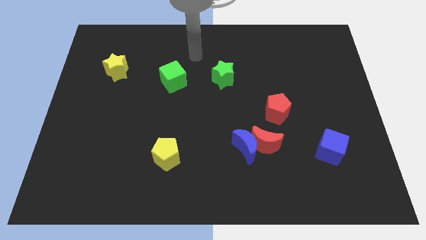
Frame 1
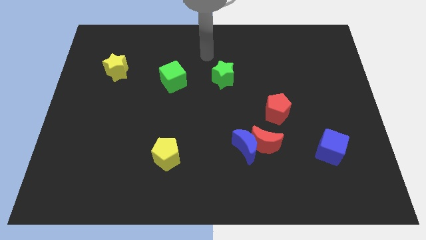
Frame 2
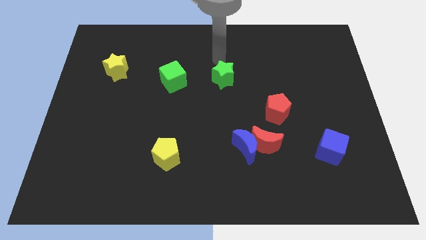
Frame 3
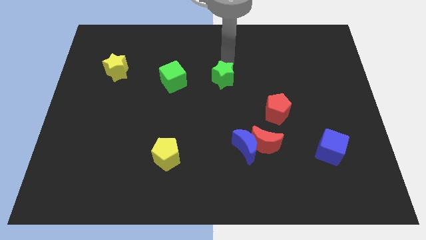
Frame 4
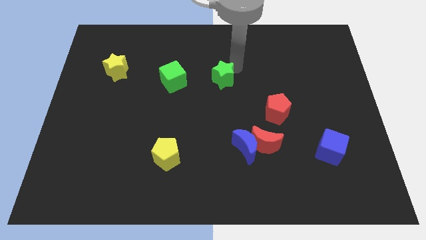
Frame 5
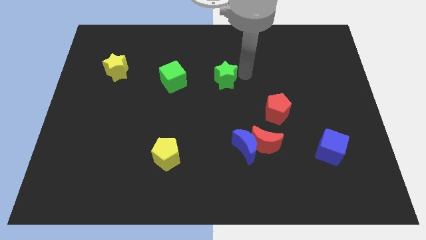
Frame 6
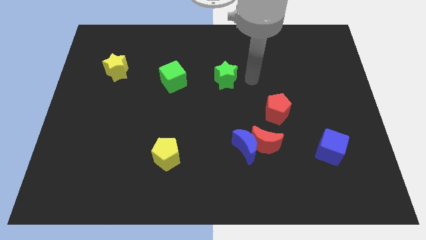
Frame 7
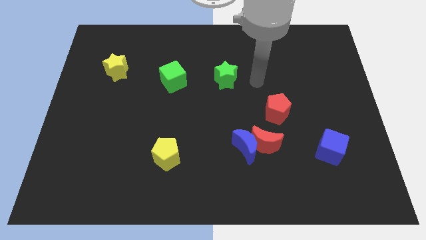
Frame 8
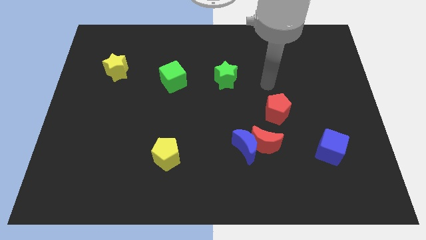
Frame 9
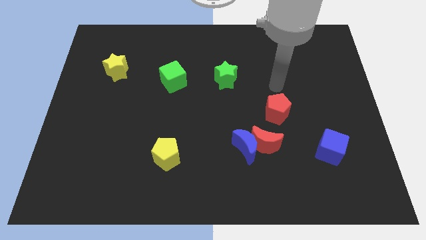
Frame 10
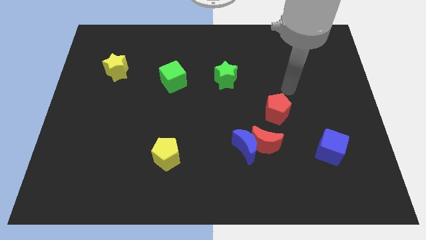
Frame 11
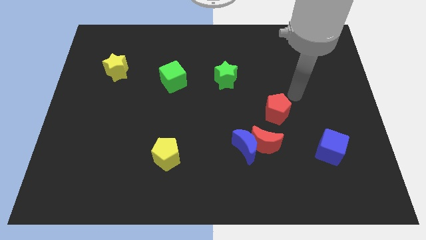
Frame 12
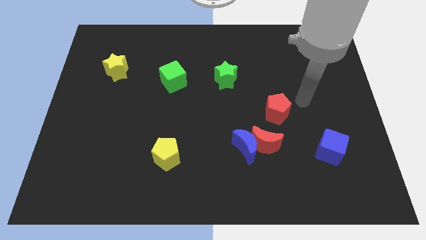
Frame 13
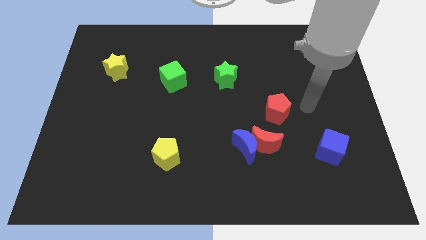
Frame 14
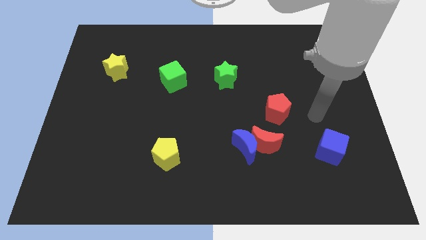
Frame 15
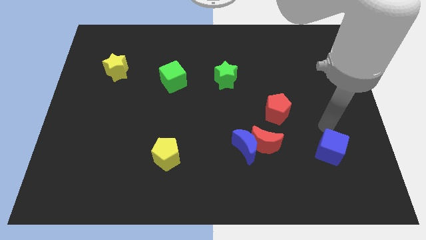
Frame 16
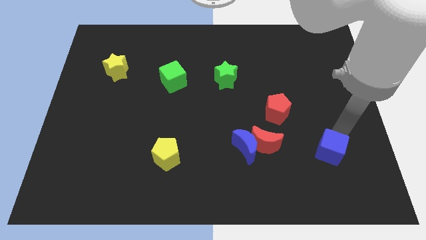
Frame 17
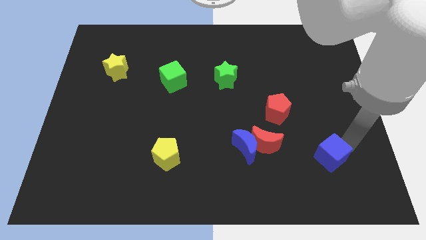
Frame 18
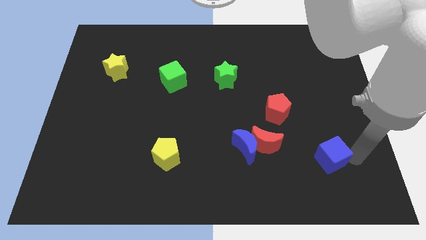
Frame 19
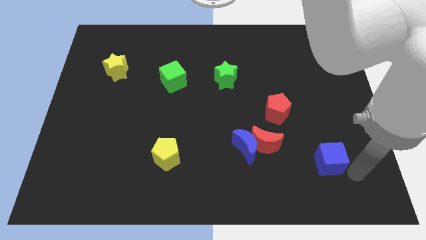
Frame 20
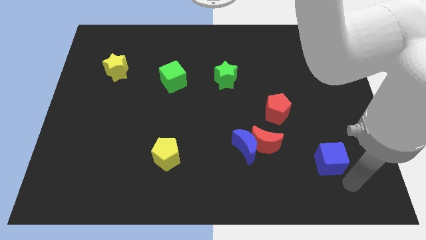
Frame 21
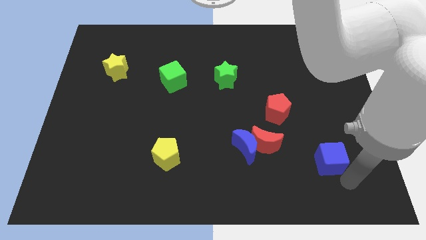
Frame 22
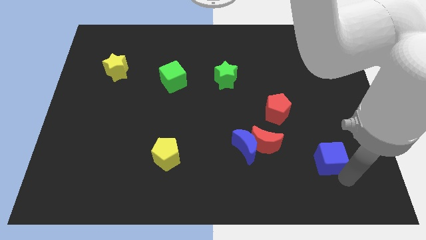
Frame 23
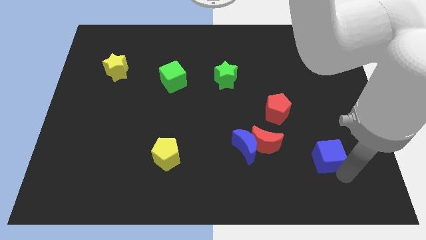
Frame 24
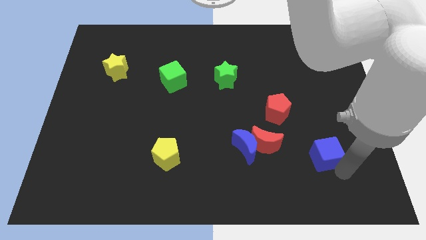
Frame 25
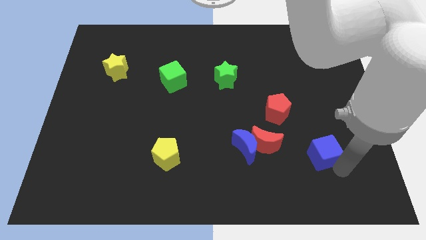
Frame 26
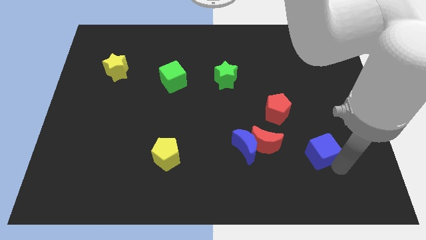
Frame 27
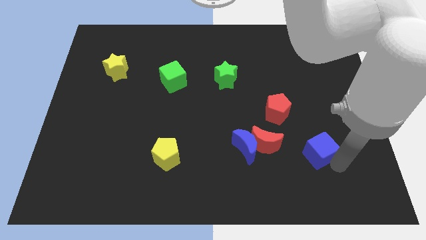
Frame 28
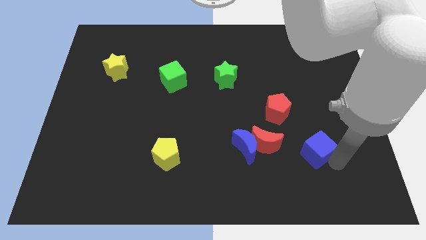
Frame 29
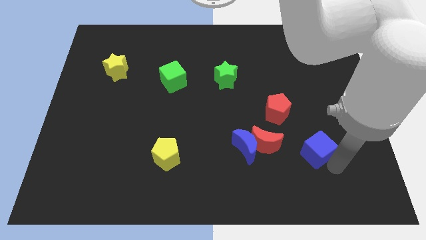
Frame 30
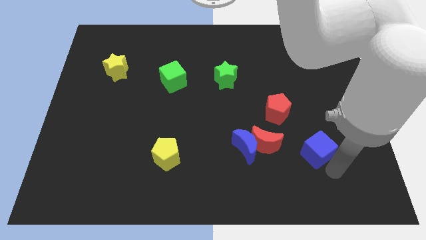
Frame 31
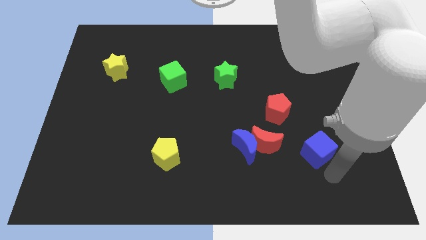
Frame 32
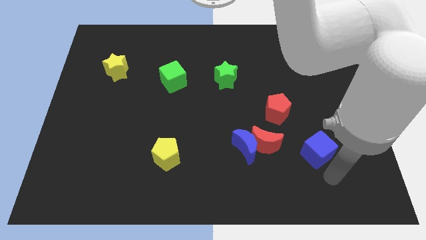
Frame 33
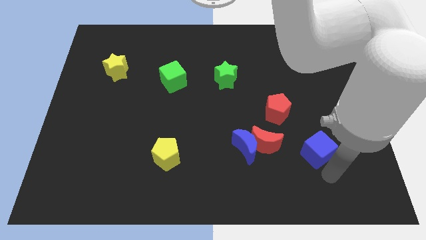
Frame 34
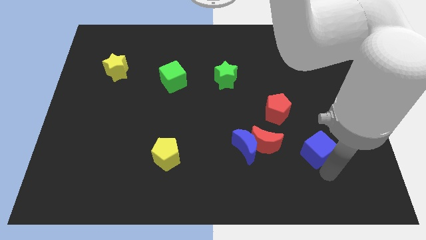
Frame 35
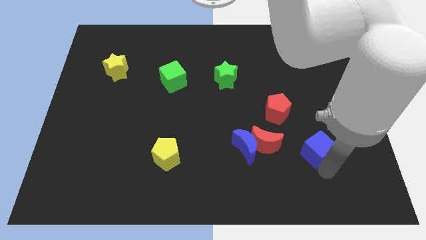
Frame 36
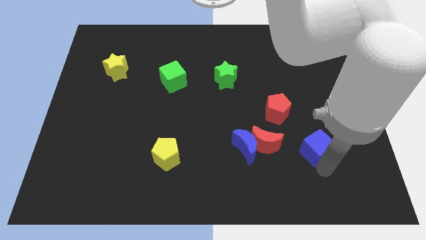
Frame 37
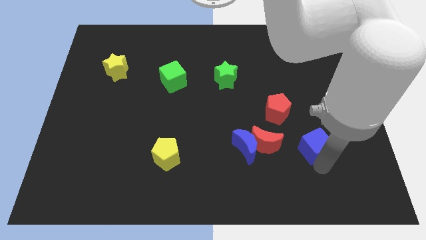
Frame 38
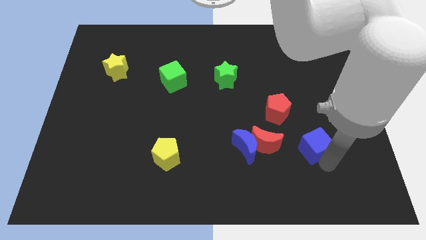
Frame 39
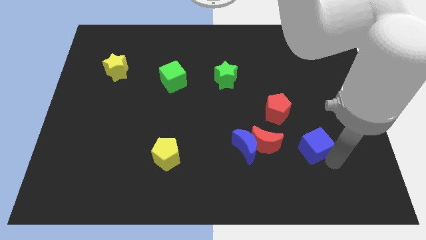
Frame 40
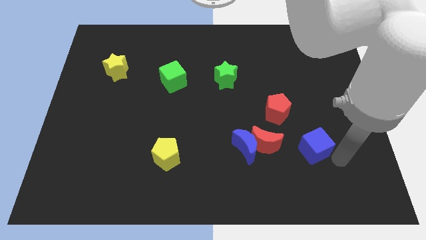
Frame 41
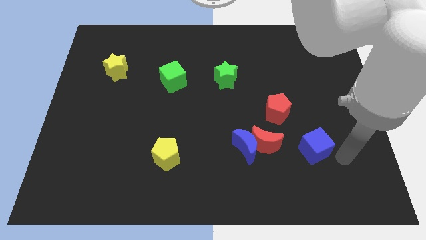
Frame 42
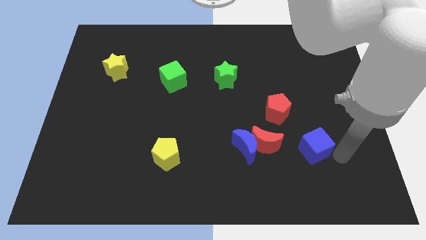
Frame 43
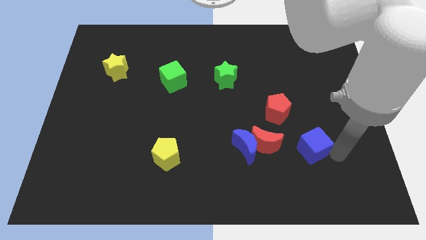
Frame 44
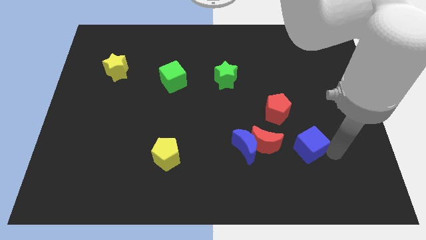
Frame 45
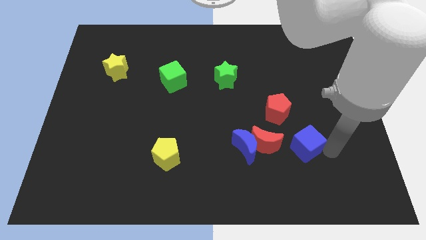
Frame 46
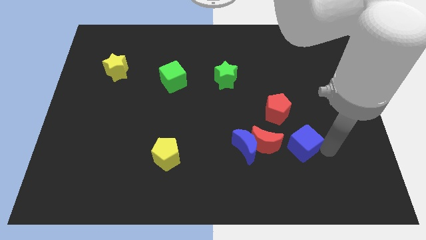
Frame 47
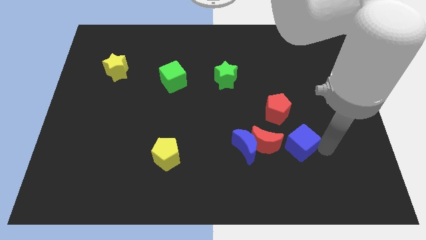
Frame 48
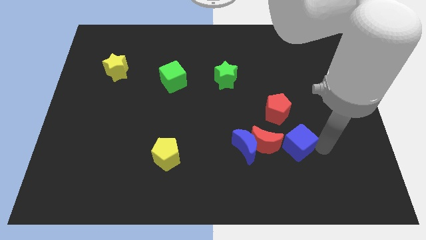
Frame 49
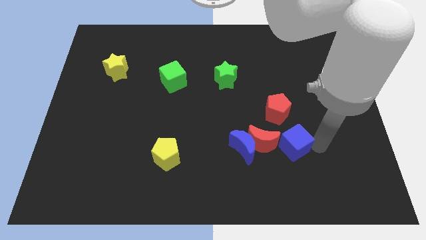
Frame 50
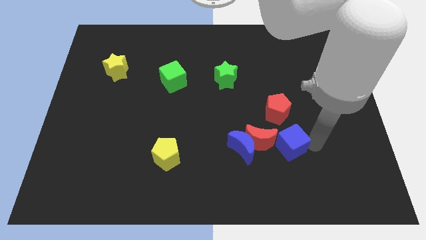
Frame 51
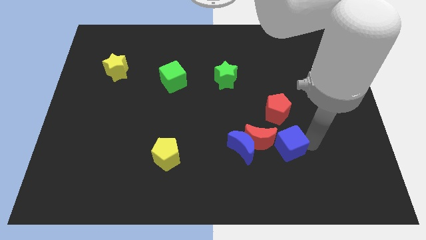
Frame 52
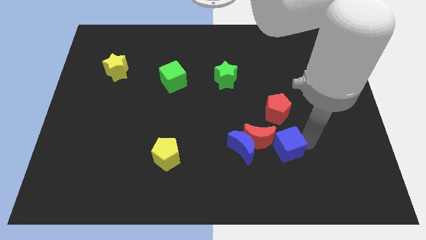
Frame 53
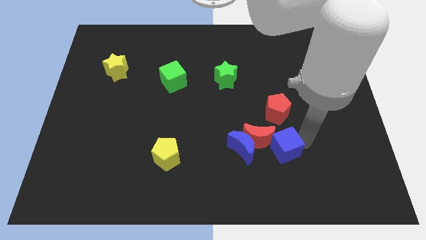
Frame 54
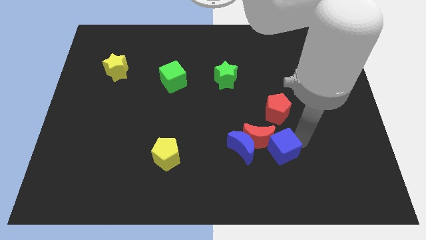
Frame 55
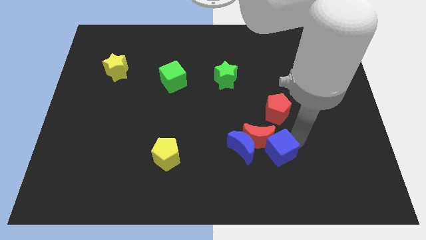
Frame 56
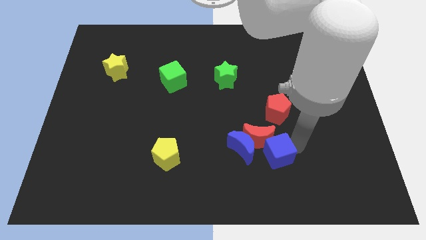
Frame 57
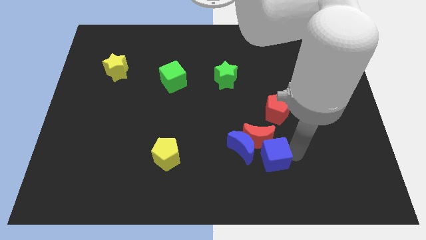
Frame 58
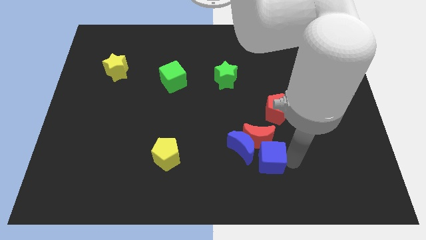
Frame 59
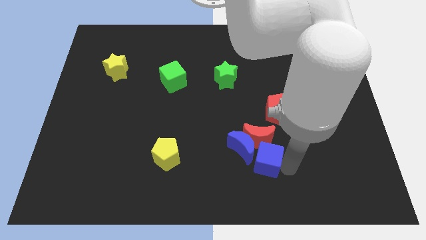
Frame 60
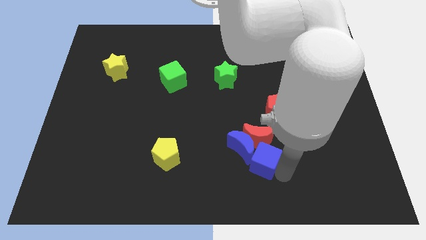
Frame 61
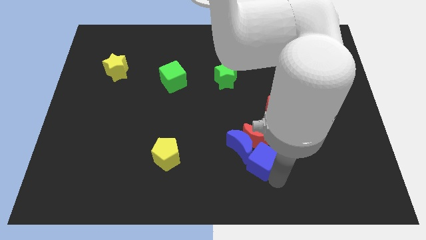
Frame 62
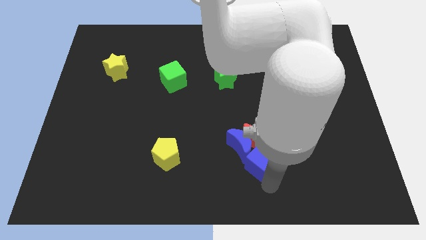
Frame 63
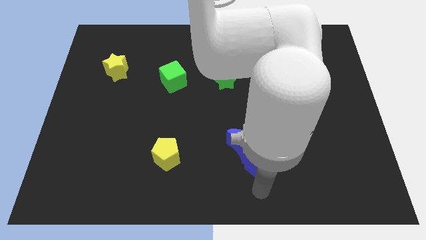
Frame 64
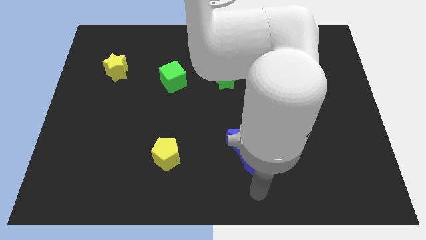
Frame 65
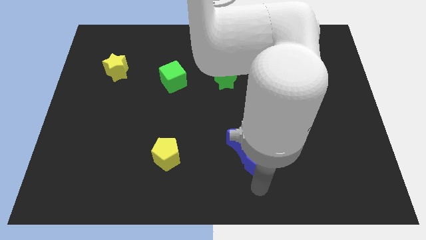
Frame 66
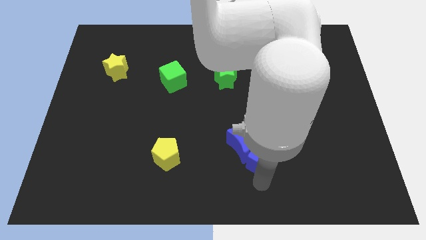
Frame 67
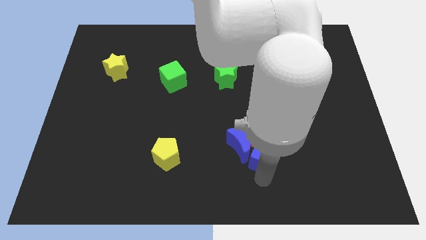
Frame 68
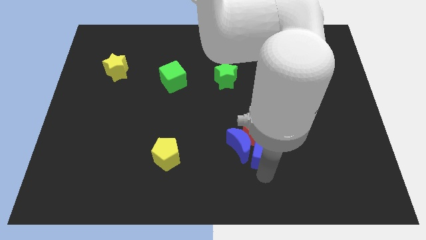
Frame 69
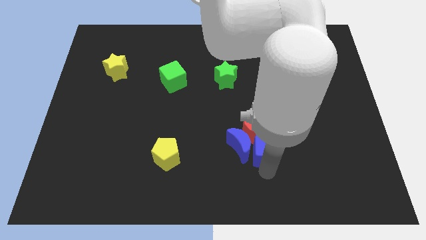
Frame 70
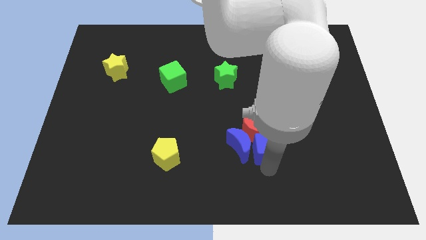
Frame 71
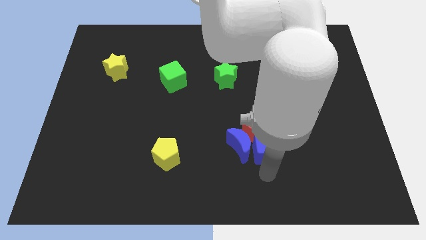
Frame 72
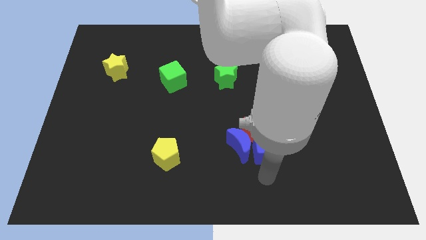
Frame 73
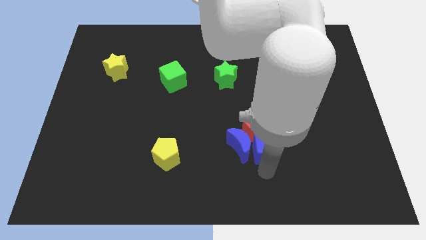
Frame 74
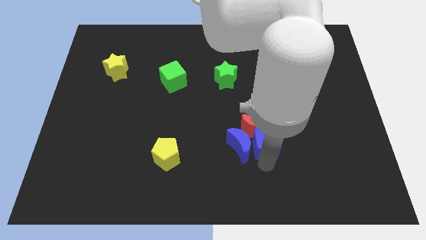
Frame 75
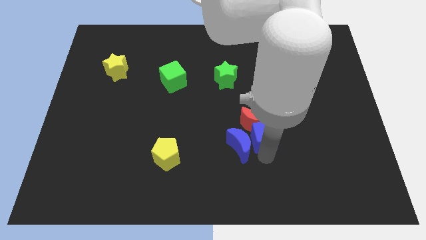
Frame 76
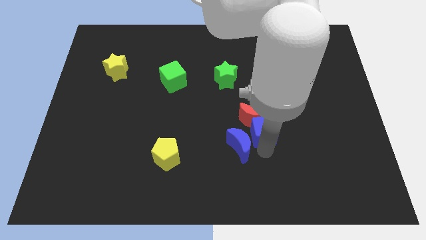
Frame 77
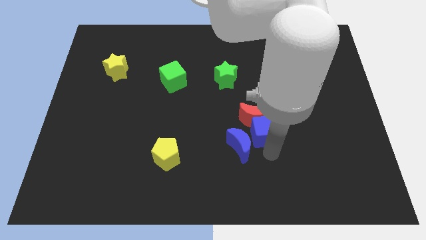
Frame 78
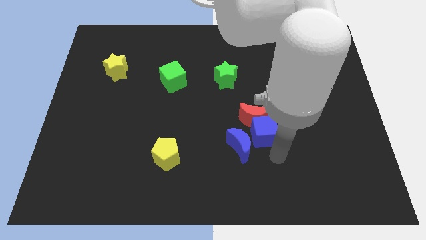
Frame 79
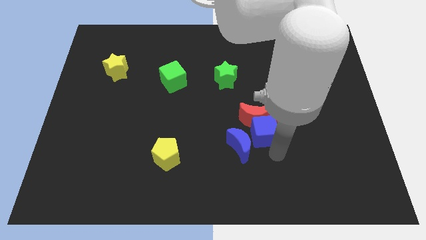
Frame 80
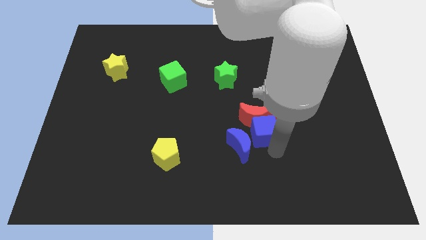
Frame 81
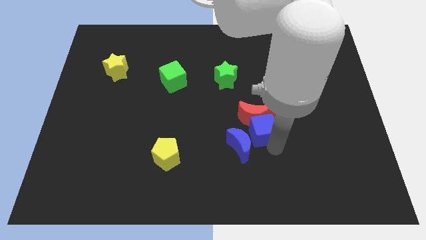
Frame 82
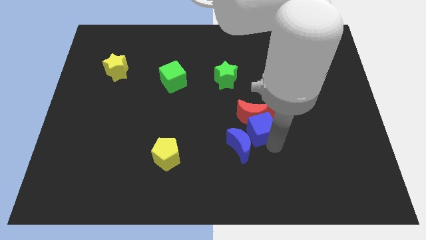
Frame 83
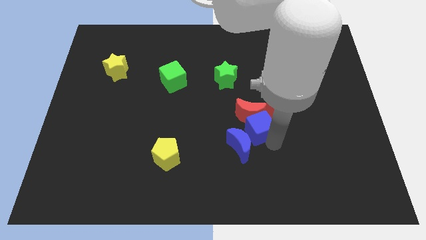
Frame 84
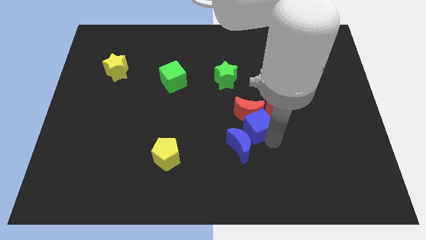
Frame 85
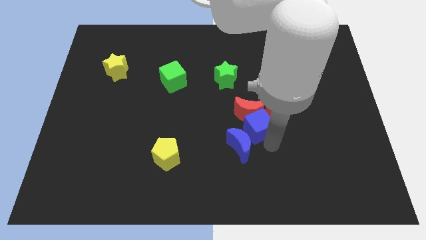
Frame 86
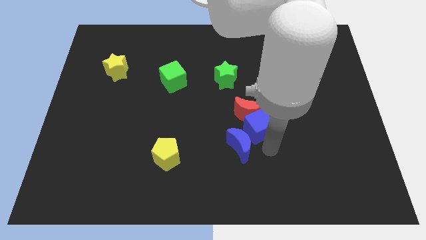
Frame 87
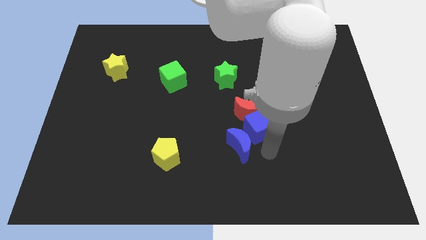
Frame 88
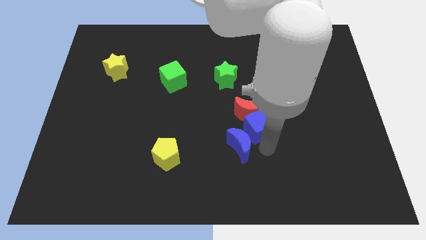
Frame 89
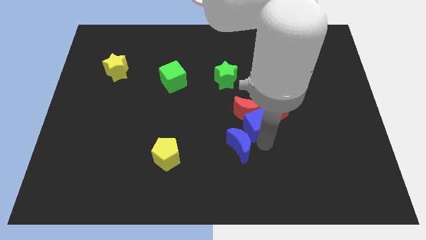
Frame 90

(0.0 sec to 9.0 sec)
push the blue cube to the center
